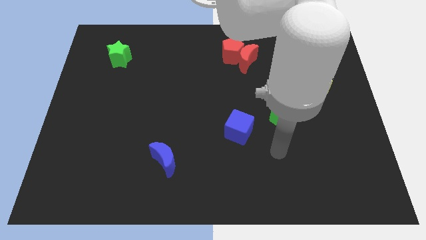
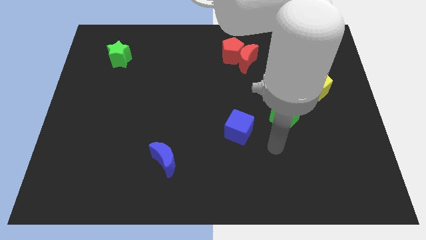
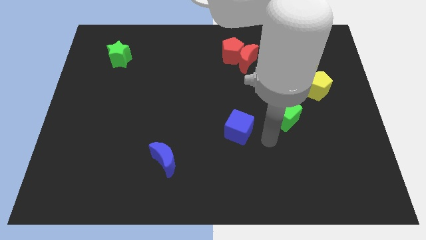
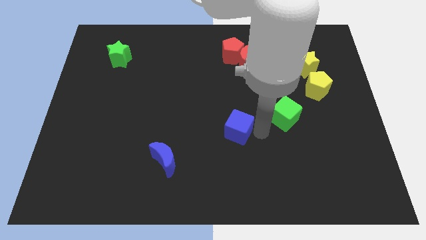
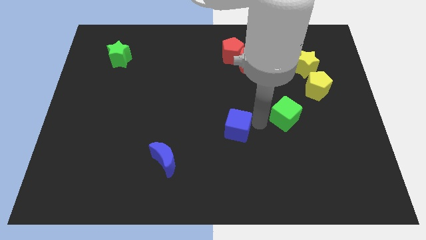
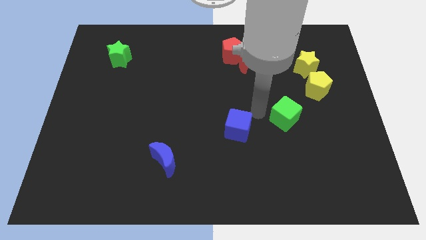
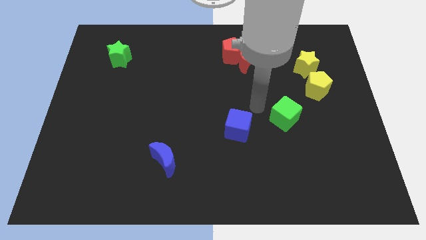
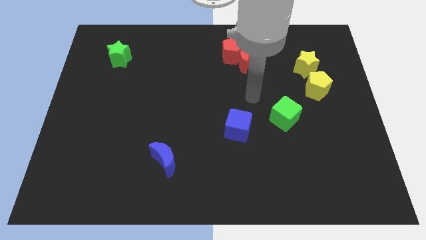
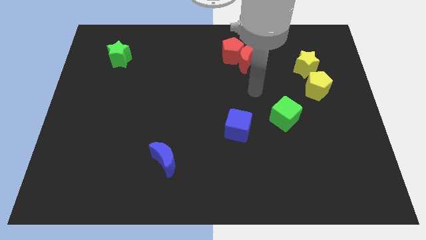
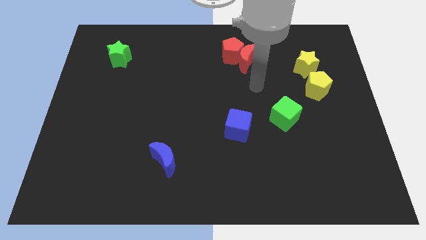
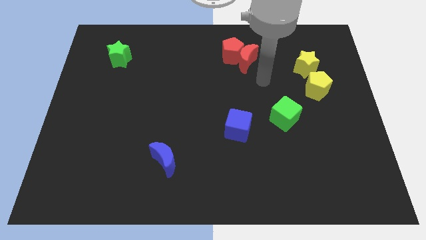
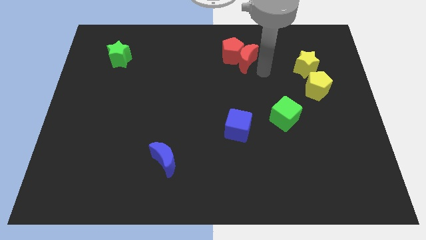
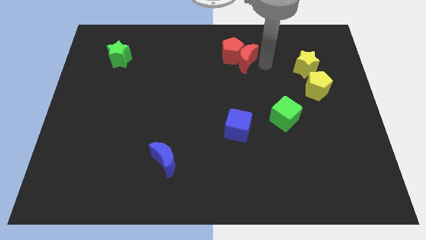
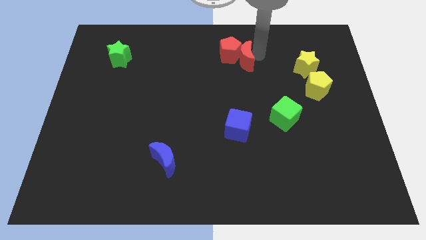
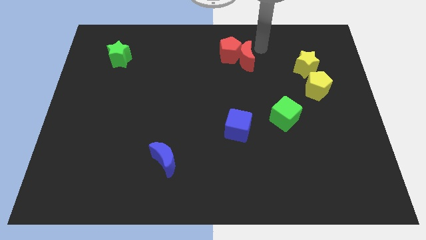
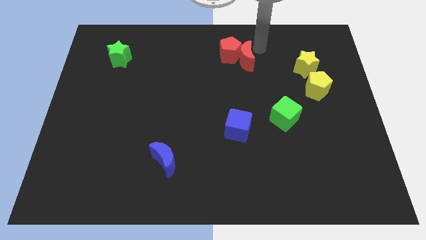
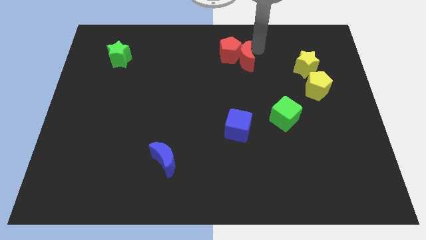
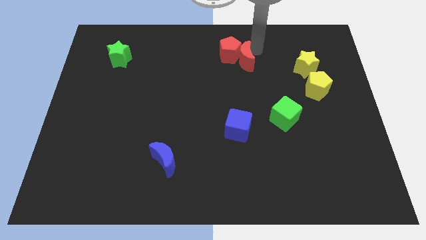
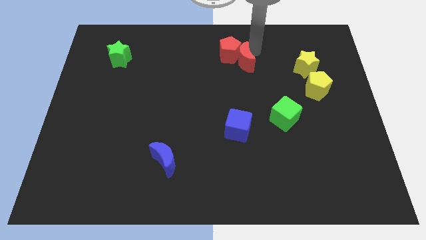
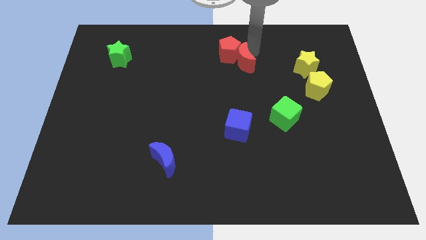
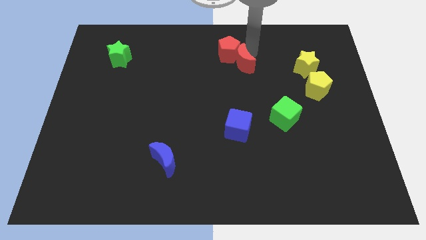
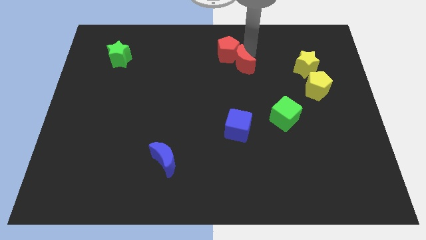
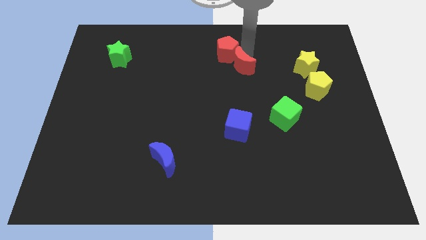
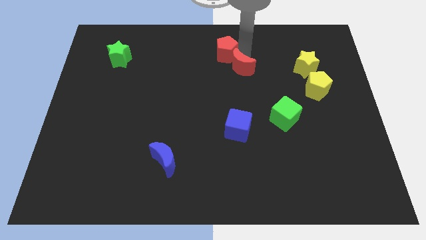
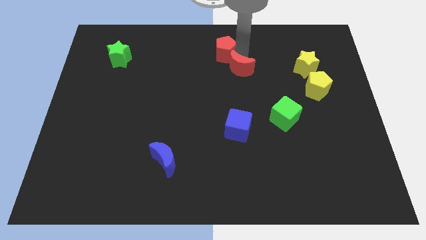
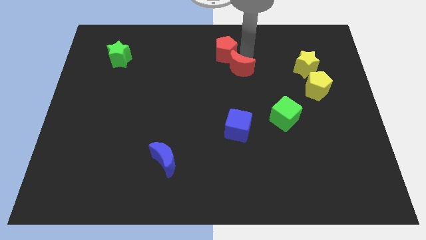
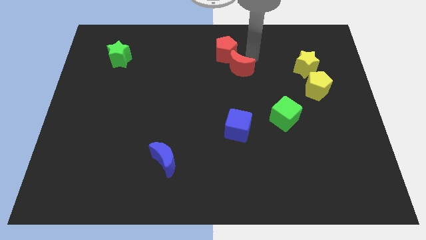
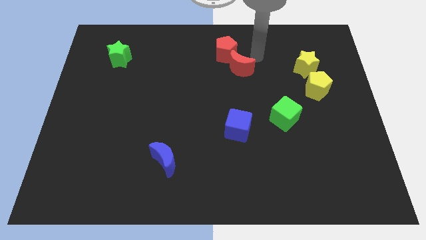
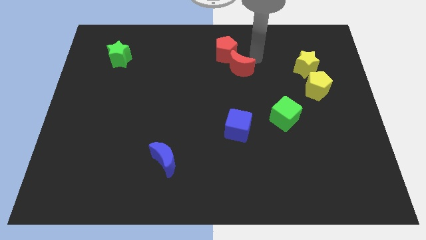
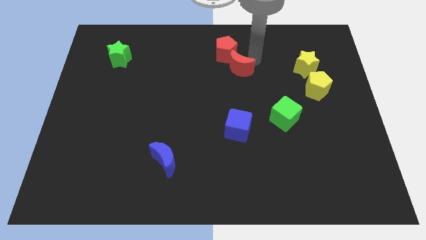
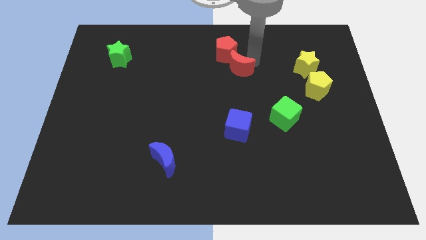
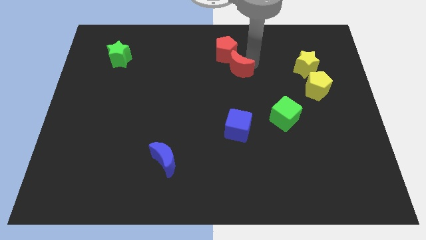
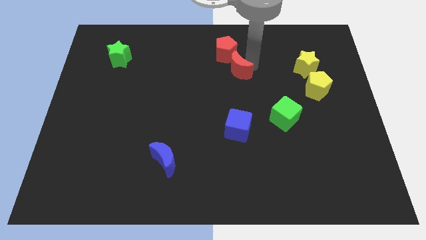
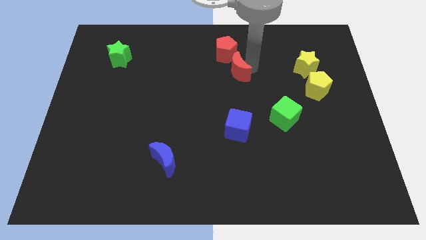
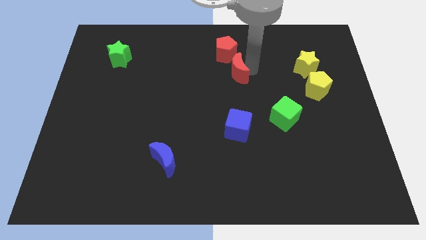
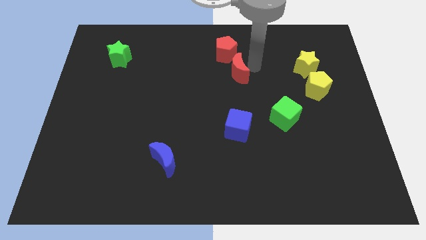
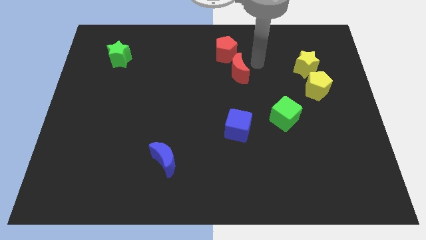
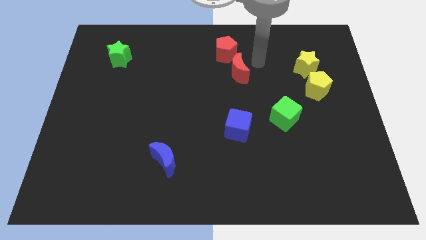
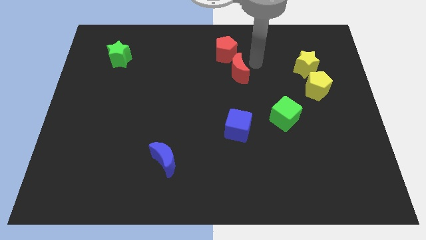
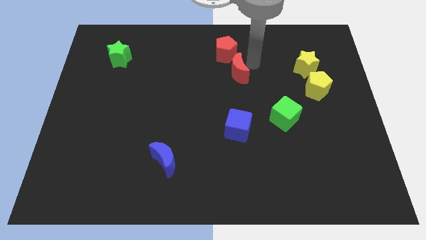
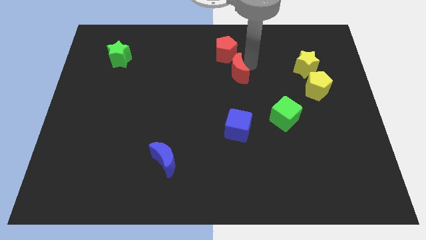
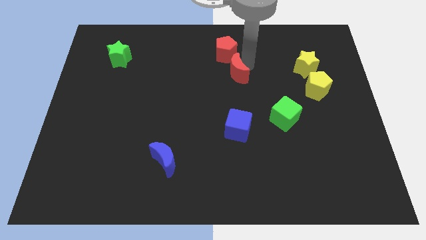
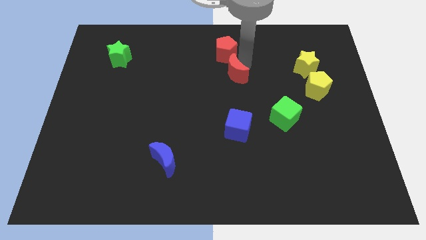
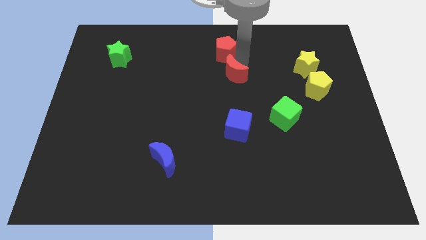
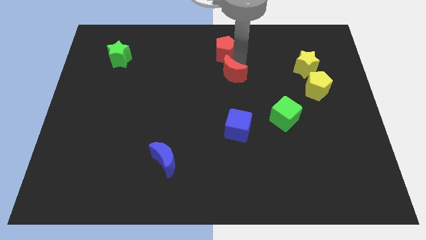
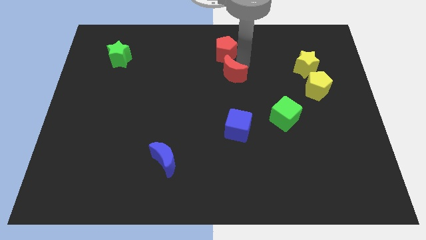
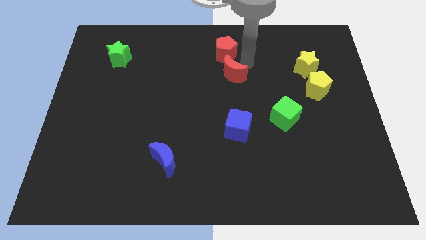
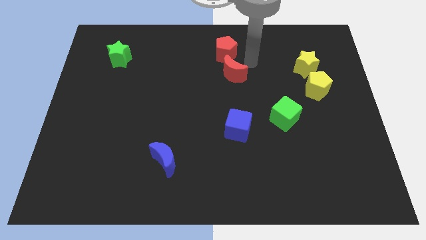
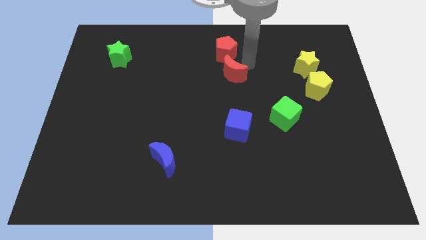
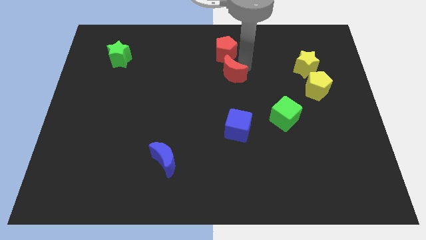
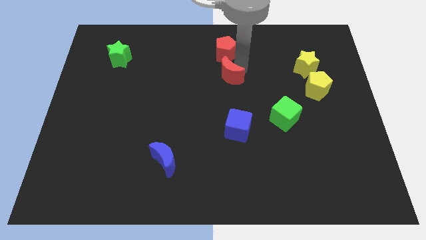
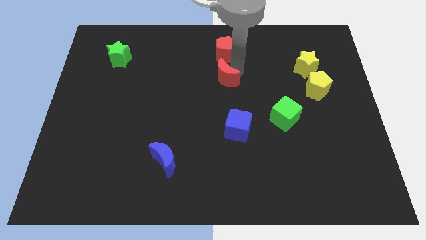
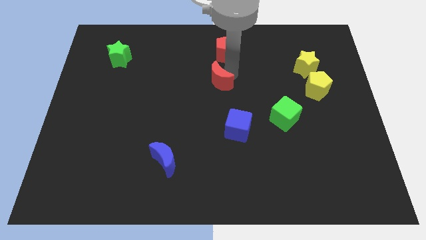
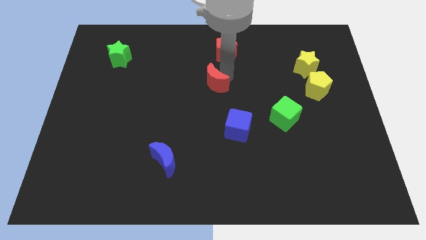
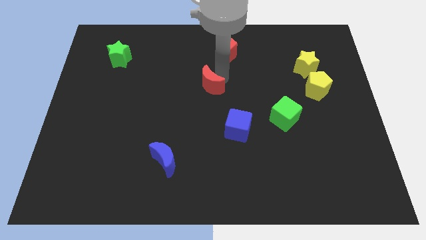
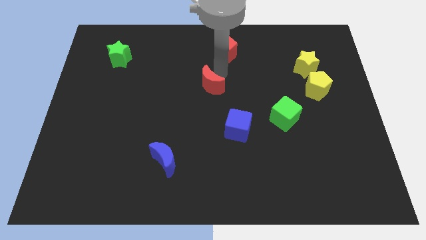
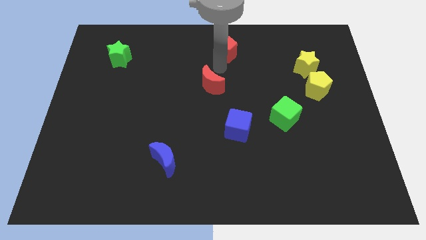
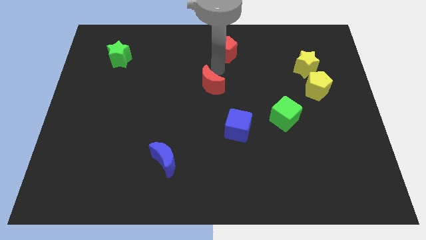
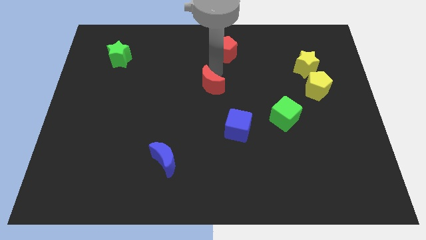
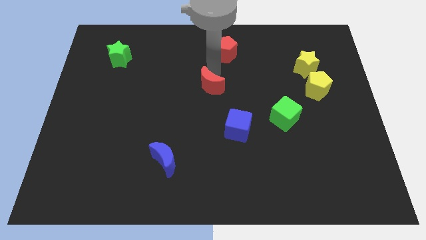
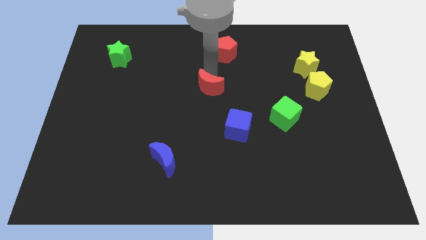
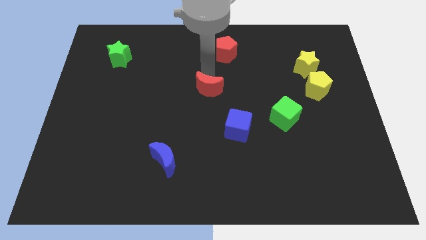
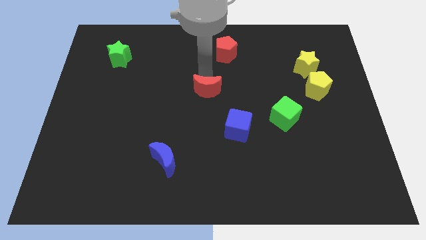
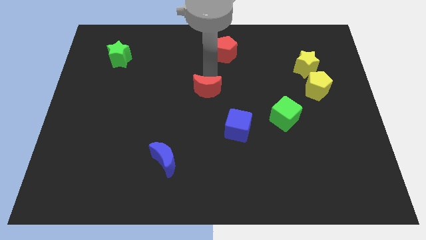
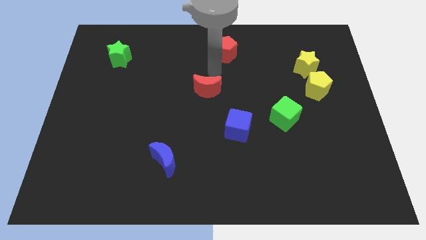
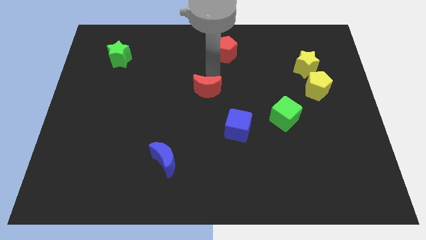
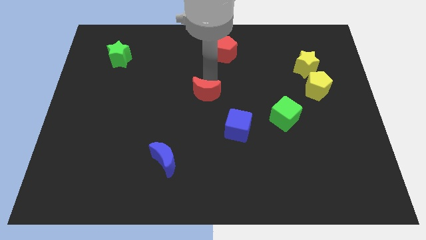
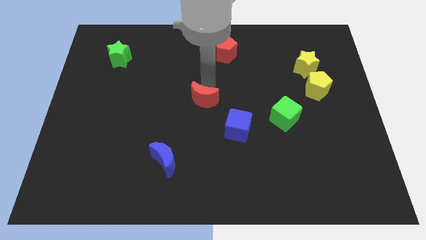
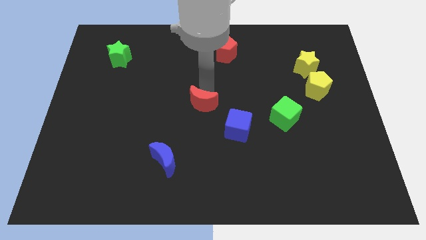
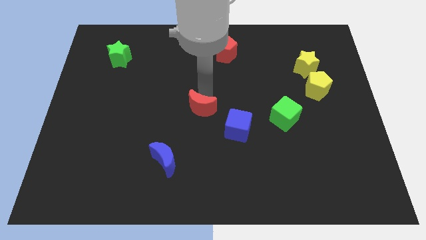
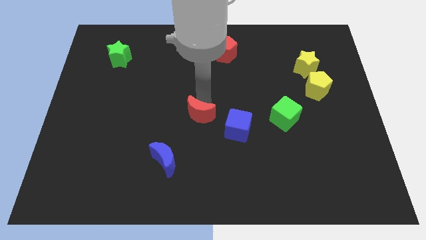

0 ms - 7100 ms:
move the red moon just left of the blue cube
